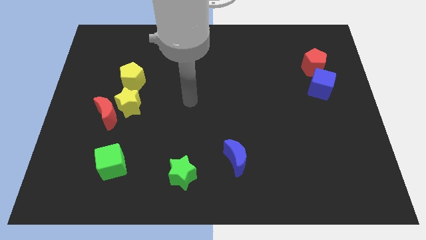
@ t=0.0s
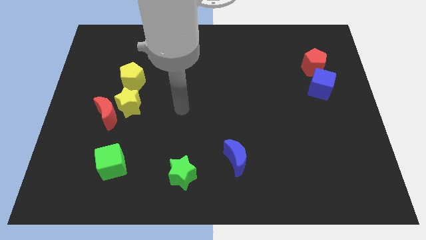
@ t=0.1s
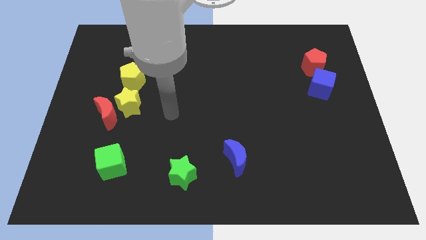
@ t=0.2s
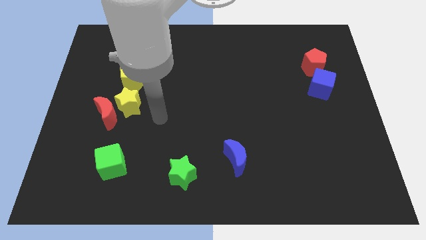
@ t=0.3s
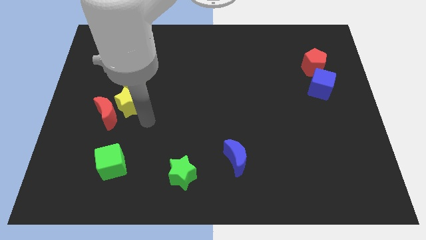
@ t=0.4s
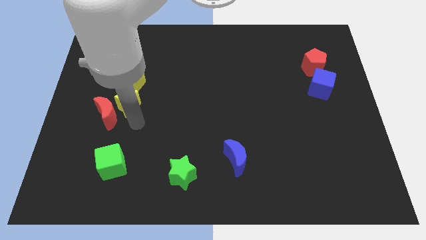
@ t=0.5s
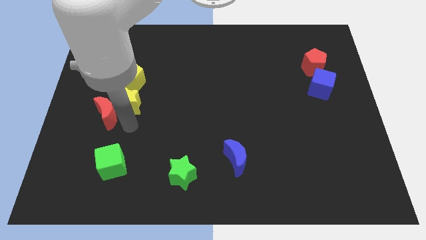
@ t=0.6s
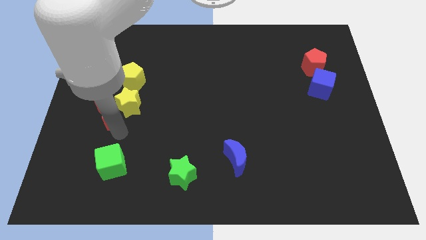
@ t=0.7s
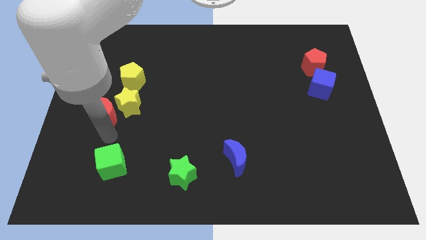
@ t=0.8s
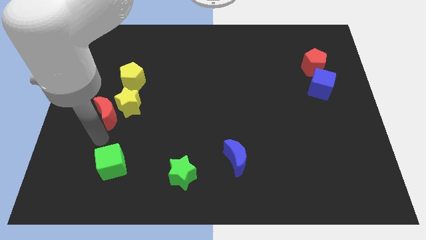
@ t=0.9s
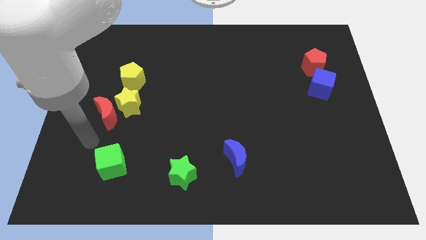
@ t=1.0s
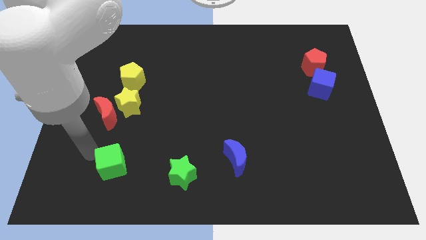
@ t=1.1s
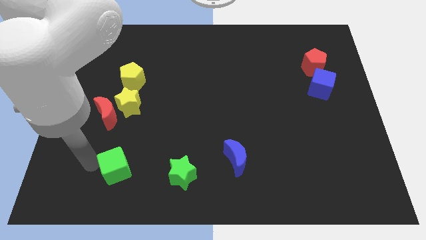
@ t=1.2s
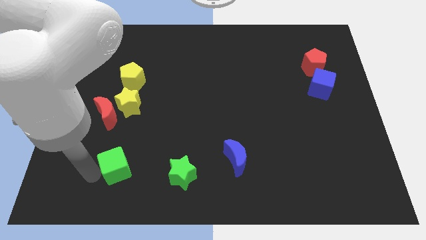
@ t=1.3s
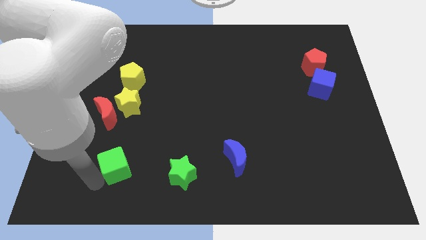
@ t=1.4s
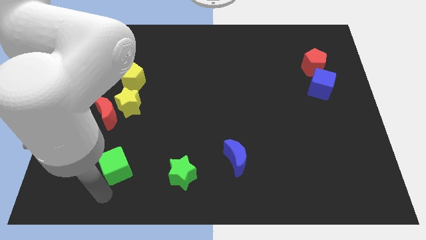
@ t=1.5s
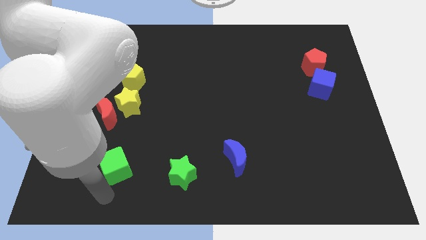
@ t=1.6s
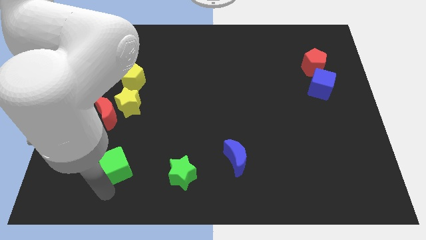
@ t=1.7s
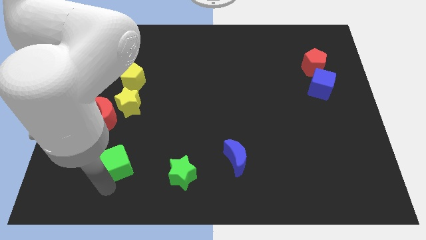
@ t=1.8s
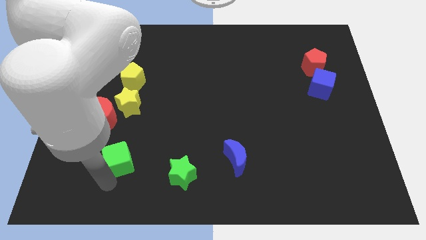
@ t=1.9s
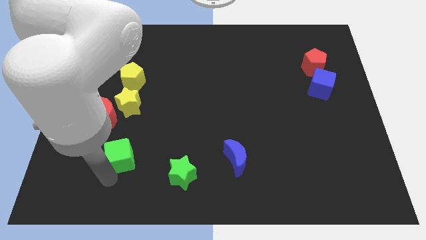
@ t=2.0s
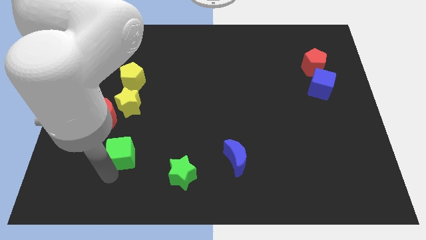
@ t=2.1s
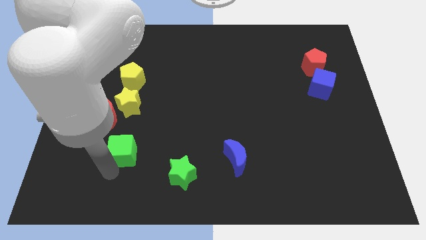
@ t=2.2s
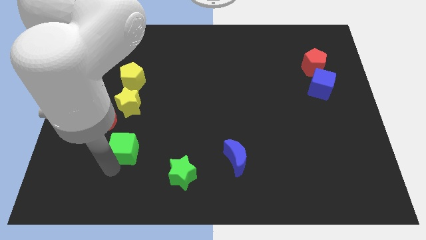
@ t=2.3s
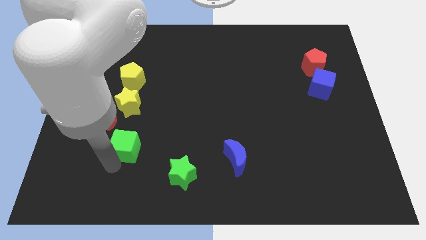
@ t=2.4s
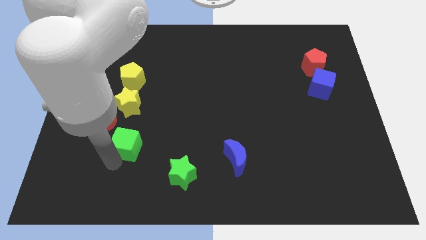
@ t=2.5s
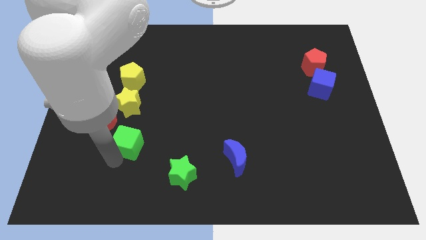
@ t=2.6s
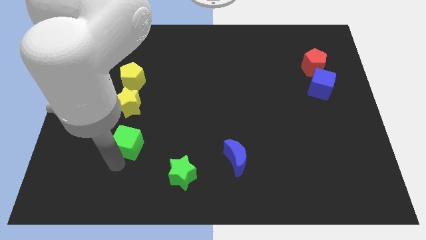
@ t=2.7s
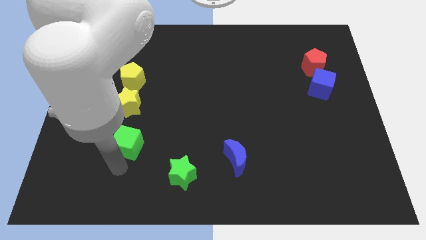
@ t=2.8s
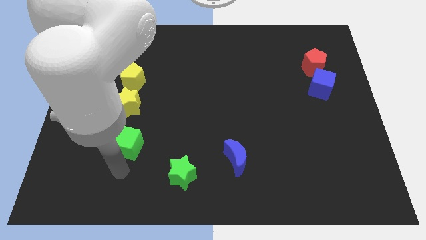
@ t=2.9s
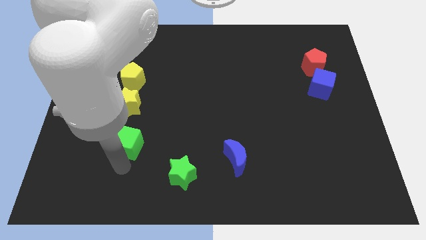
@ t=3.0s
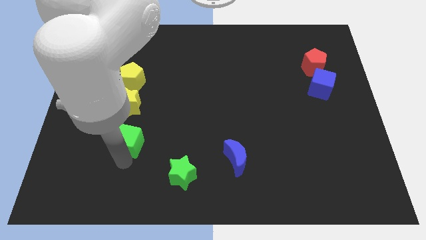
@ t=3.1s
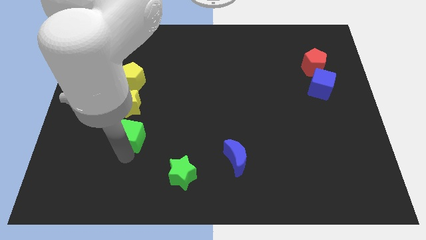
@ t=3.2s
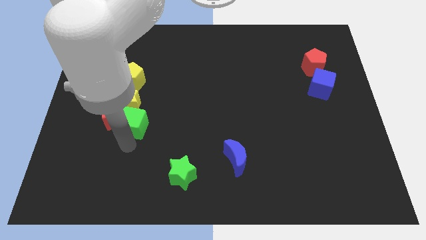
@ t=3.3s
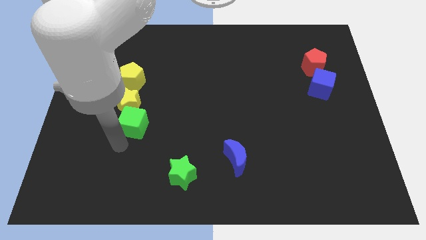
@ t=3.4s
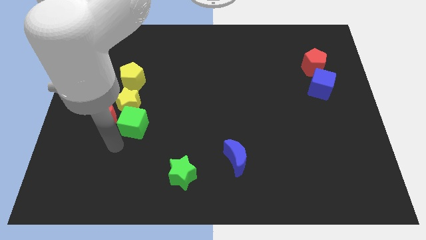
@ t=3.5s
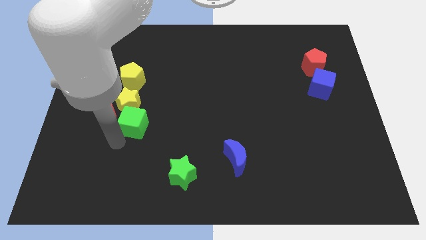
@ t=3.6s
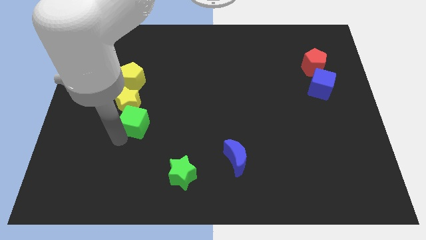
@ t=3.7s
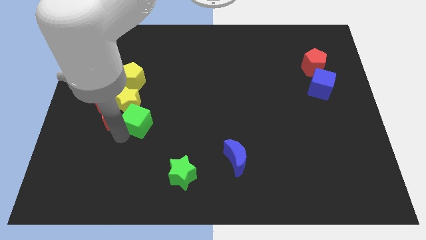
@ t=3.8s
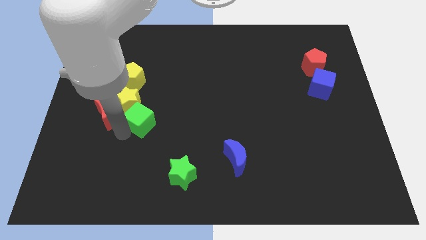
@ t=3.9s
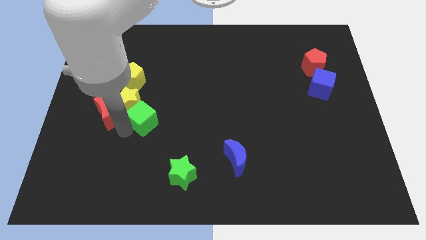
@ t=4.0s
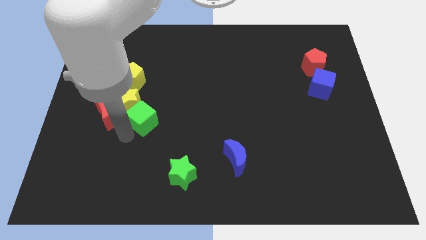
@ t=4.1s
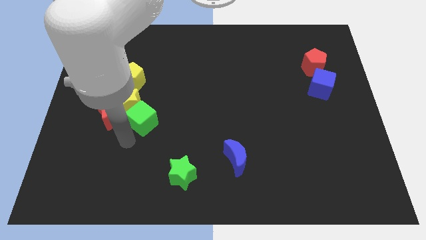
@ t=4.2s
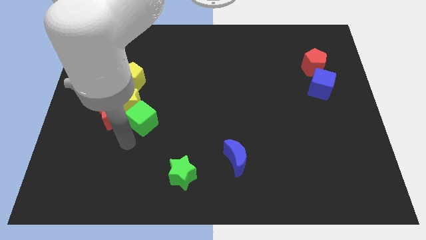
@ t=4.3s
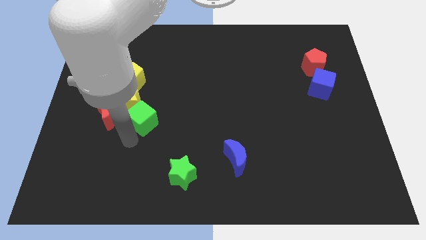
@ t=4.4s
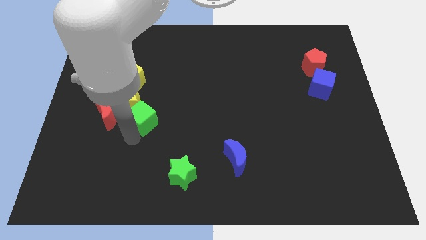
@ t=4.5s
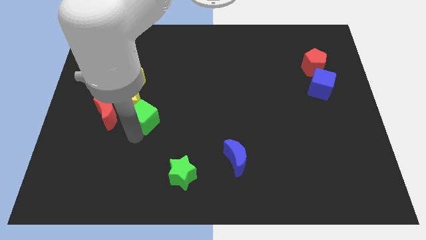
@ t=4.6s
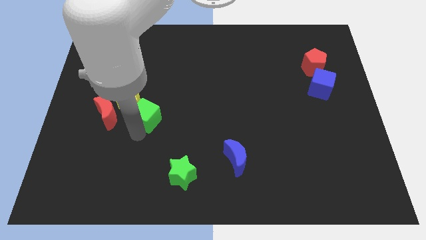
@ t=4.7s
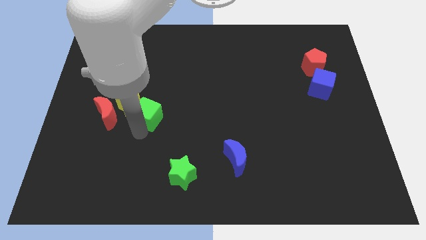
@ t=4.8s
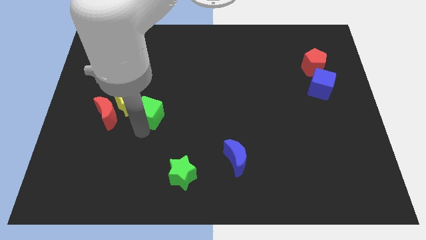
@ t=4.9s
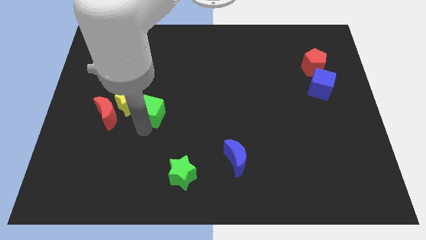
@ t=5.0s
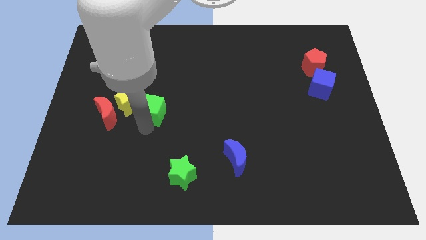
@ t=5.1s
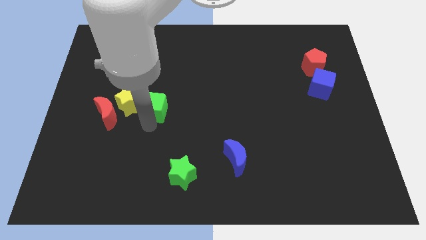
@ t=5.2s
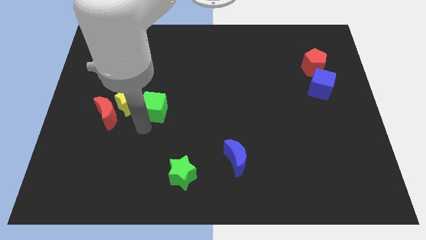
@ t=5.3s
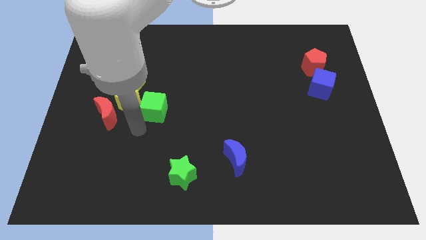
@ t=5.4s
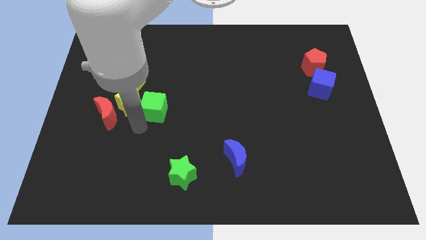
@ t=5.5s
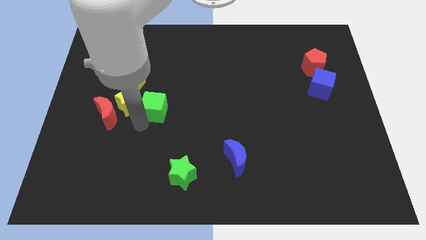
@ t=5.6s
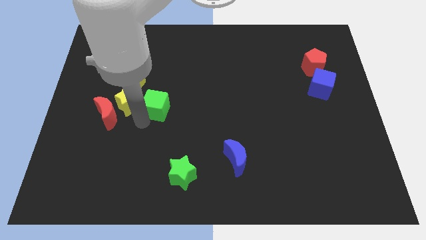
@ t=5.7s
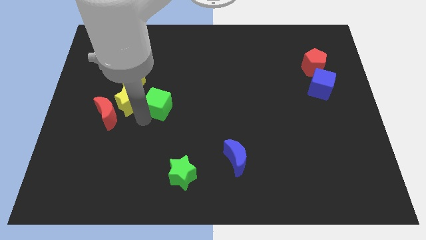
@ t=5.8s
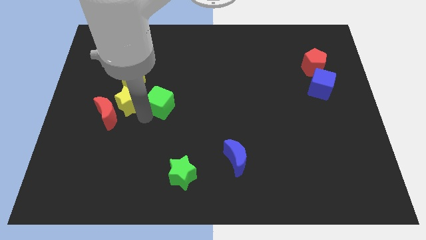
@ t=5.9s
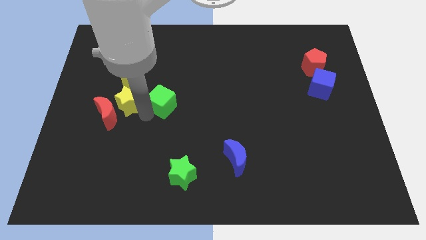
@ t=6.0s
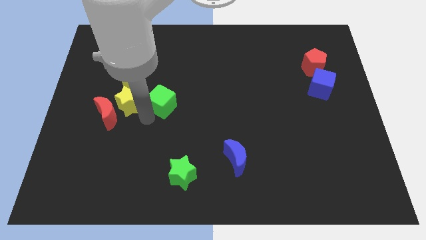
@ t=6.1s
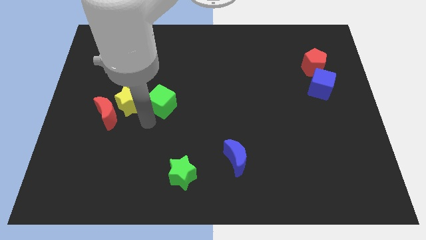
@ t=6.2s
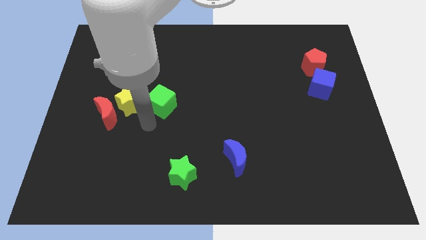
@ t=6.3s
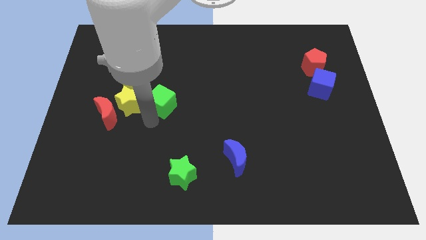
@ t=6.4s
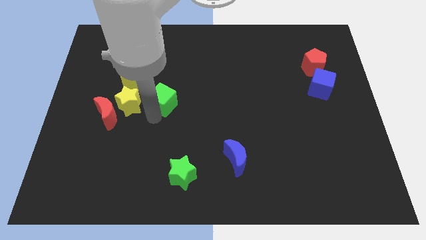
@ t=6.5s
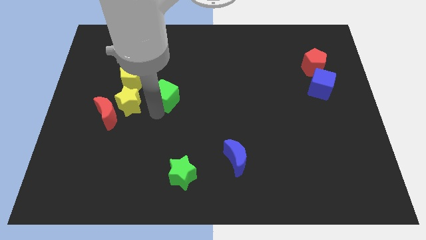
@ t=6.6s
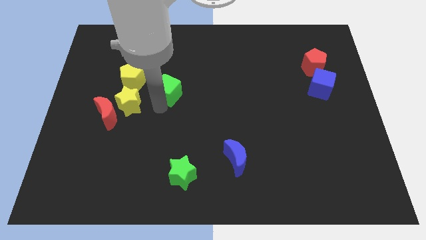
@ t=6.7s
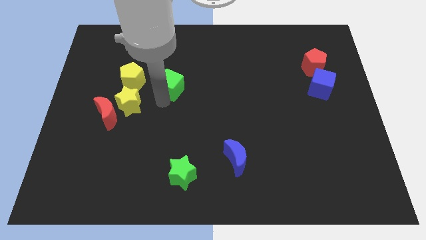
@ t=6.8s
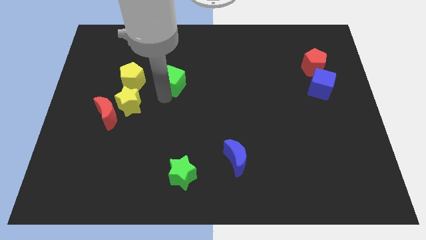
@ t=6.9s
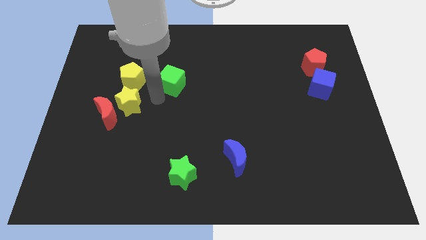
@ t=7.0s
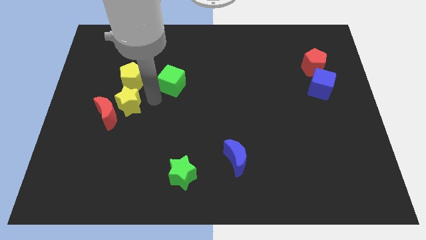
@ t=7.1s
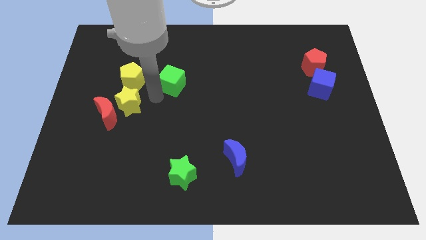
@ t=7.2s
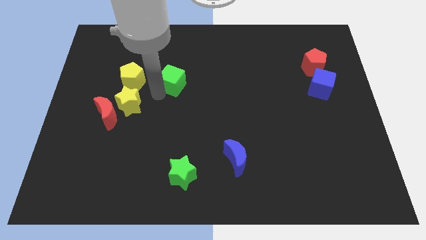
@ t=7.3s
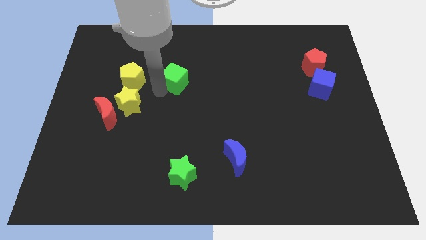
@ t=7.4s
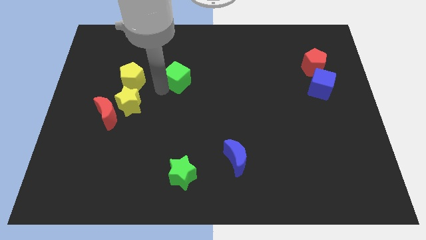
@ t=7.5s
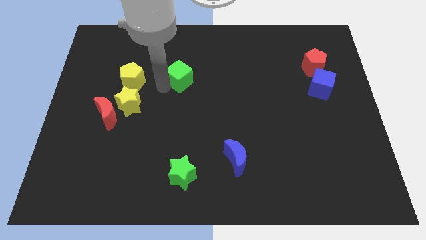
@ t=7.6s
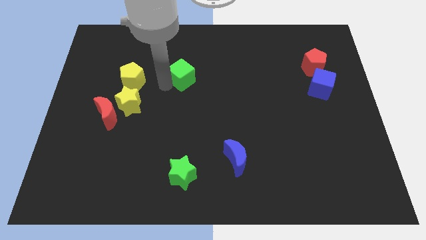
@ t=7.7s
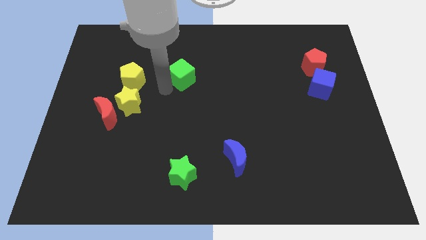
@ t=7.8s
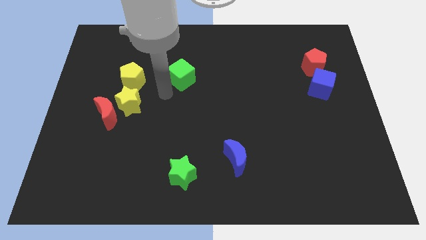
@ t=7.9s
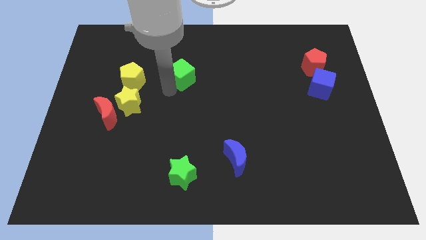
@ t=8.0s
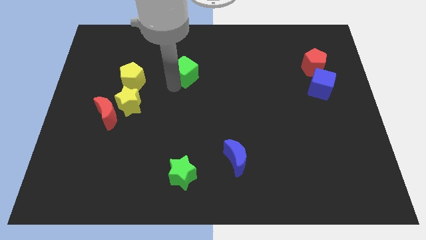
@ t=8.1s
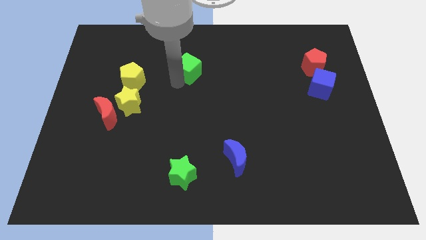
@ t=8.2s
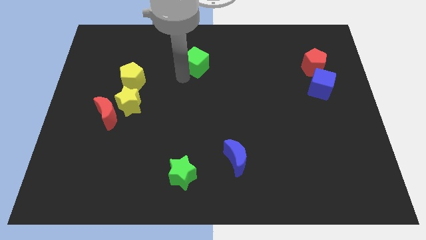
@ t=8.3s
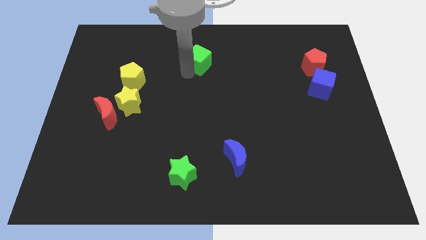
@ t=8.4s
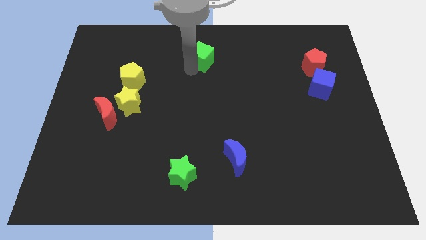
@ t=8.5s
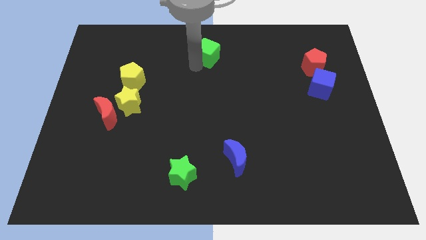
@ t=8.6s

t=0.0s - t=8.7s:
push the green cube to the towards your base
